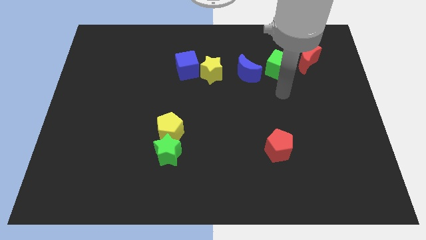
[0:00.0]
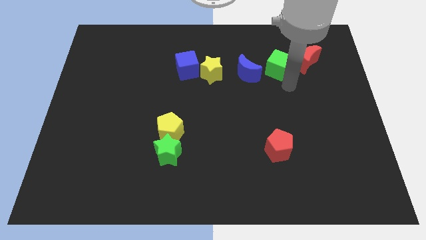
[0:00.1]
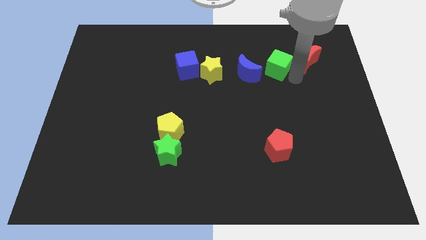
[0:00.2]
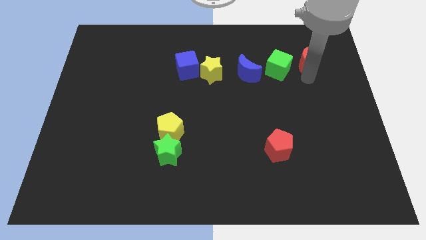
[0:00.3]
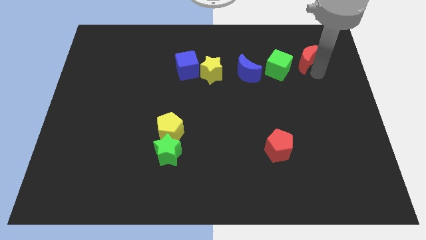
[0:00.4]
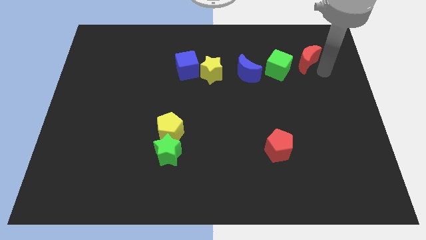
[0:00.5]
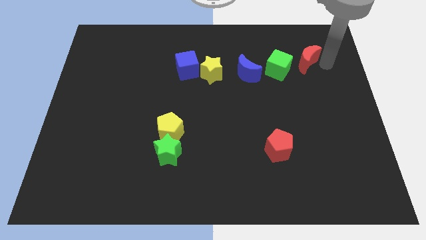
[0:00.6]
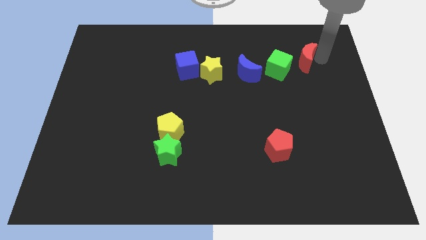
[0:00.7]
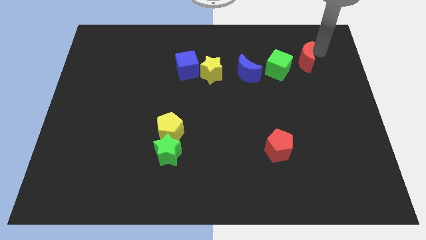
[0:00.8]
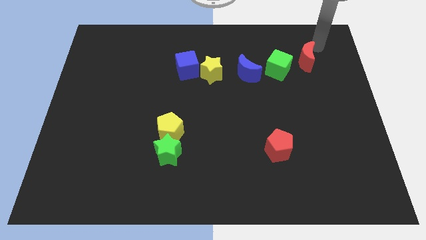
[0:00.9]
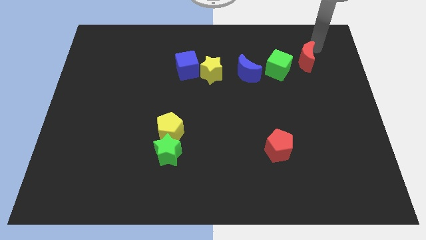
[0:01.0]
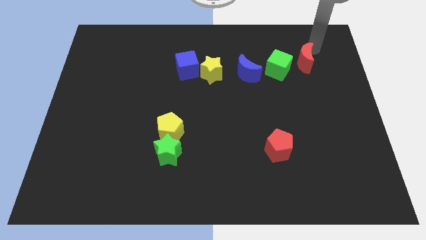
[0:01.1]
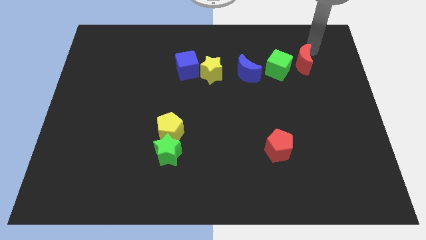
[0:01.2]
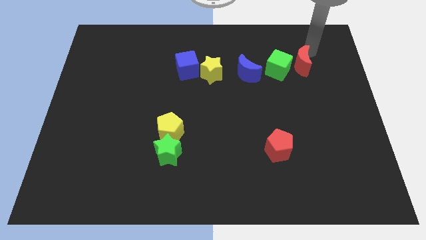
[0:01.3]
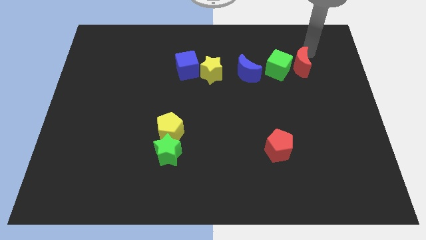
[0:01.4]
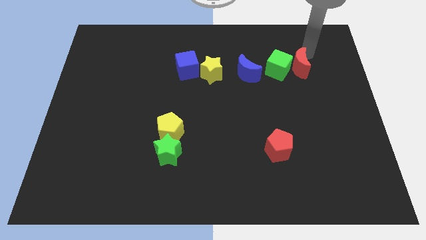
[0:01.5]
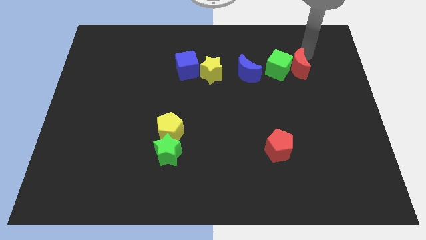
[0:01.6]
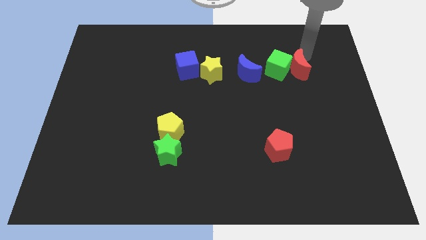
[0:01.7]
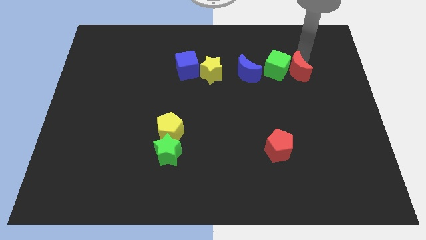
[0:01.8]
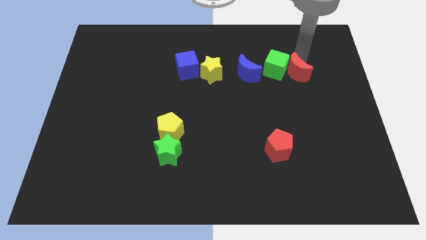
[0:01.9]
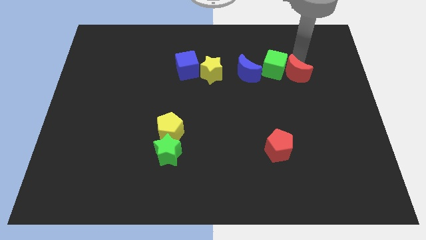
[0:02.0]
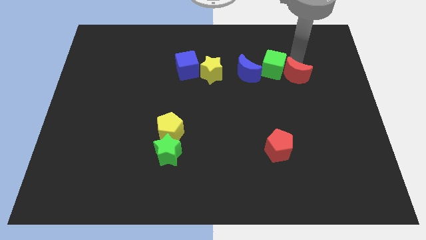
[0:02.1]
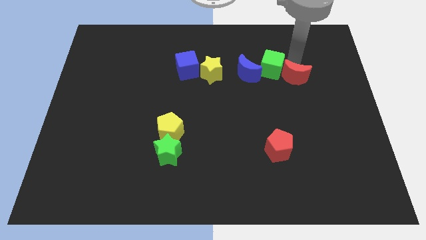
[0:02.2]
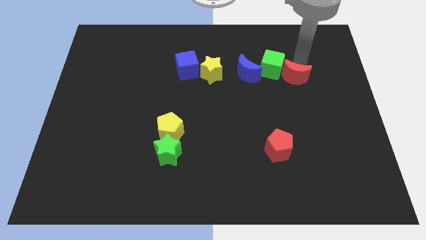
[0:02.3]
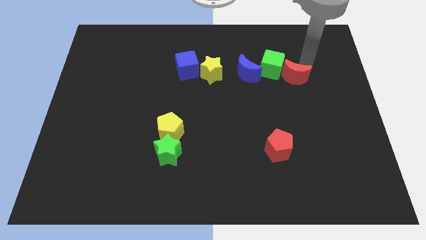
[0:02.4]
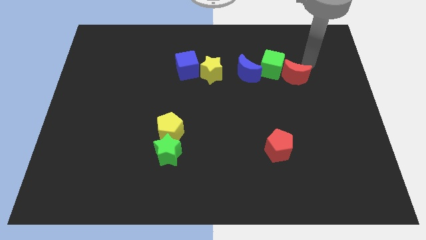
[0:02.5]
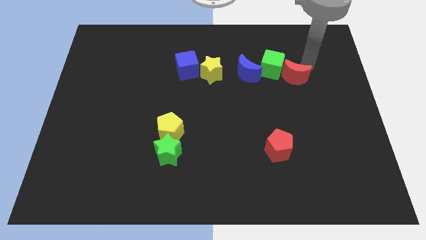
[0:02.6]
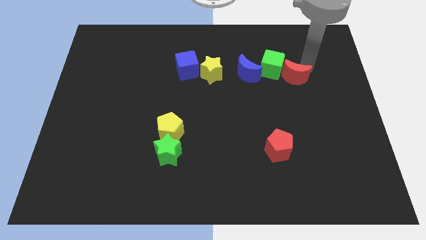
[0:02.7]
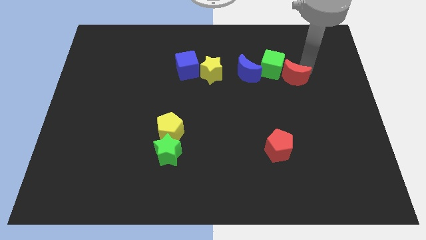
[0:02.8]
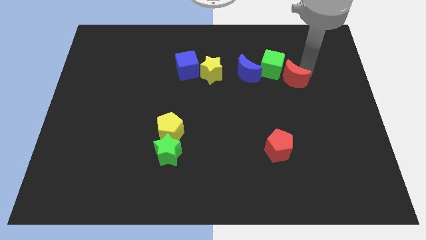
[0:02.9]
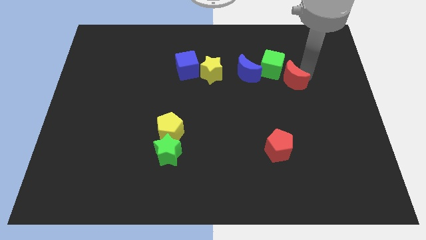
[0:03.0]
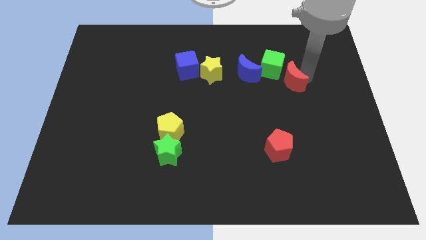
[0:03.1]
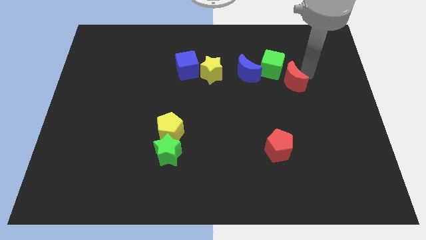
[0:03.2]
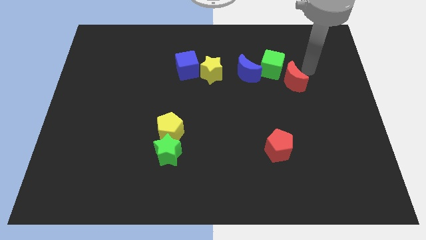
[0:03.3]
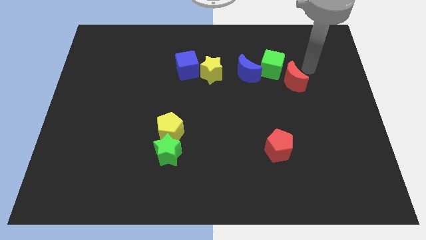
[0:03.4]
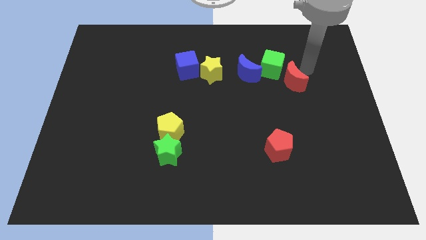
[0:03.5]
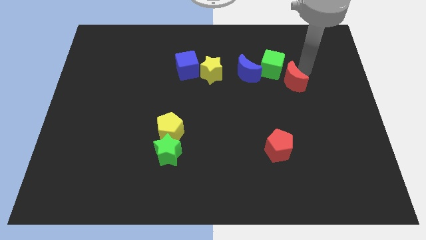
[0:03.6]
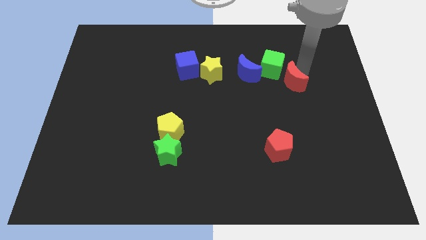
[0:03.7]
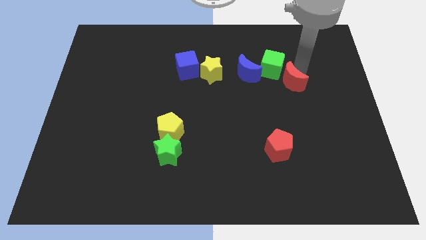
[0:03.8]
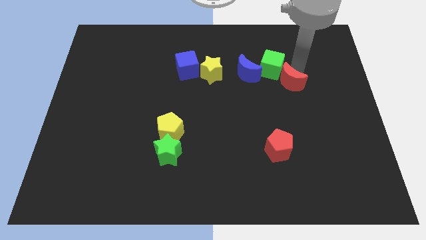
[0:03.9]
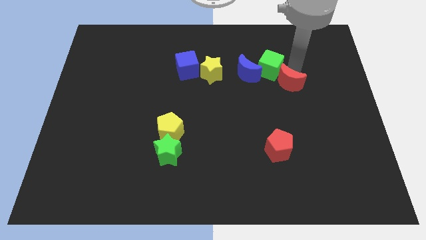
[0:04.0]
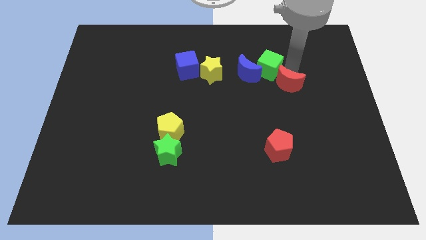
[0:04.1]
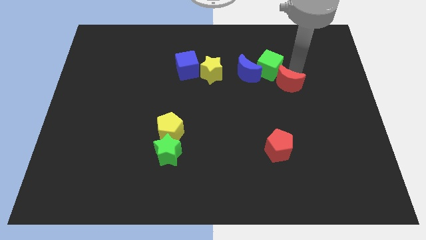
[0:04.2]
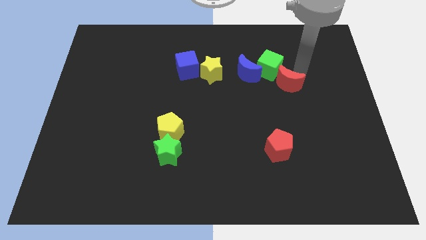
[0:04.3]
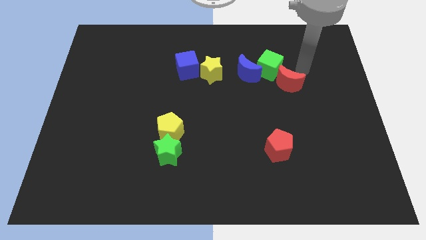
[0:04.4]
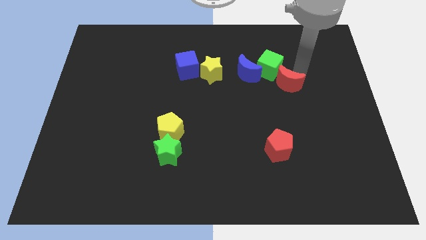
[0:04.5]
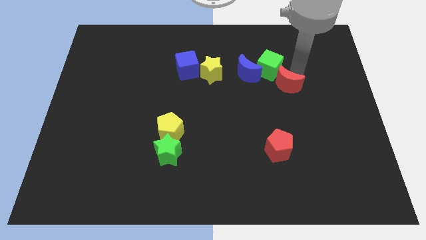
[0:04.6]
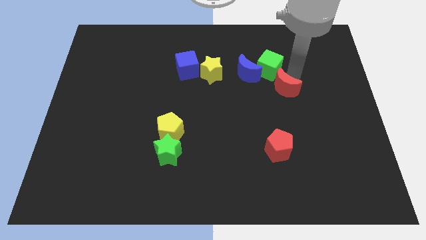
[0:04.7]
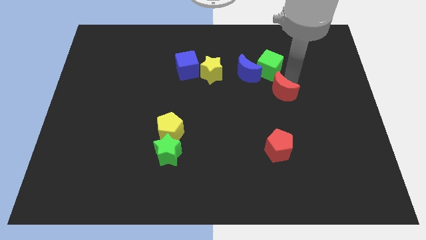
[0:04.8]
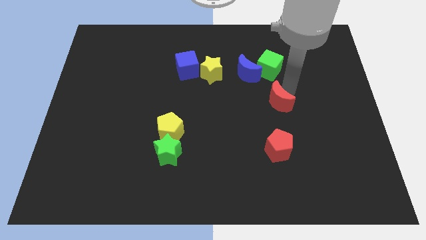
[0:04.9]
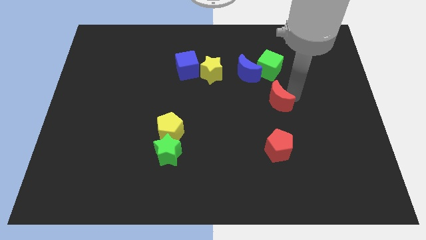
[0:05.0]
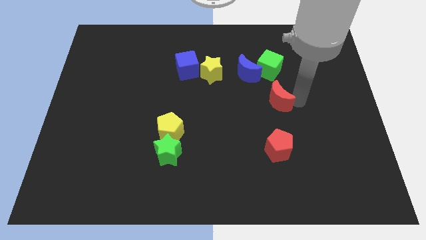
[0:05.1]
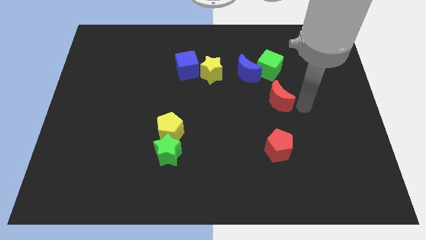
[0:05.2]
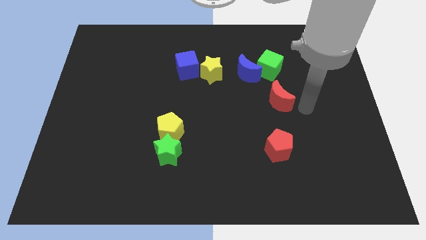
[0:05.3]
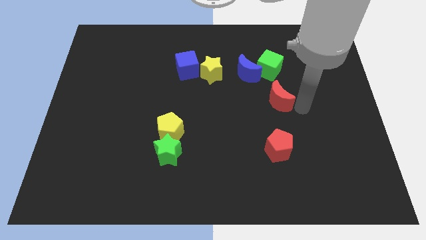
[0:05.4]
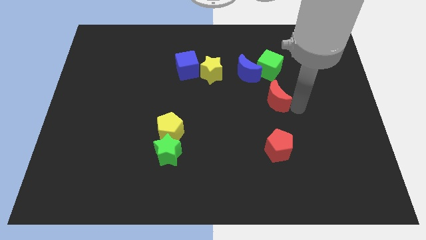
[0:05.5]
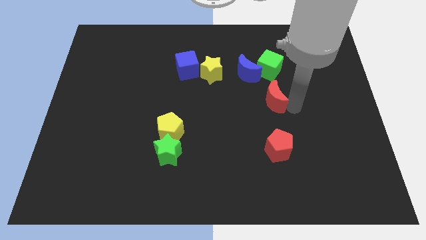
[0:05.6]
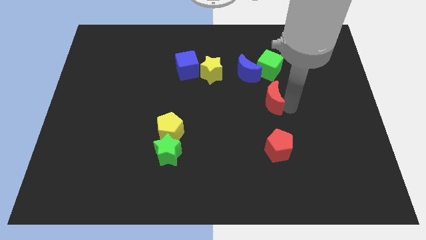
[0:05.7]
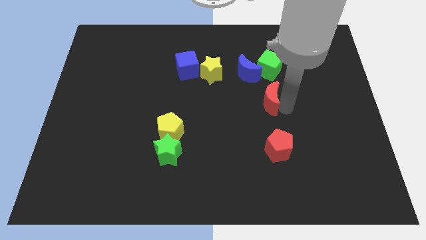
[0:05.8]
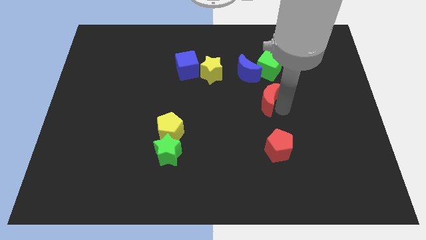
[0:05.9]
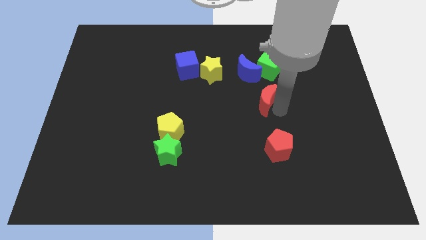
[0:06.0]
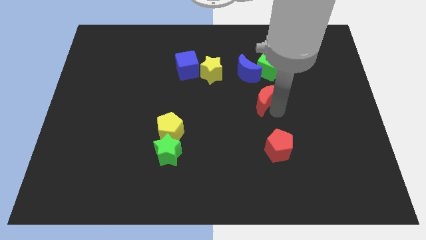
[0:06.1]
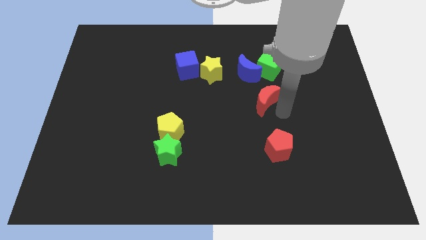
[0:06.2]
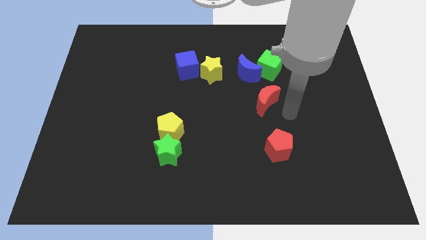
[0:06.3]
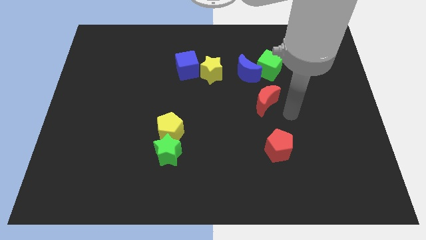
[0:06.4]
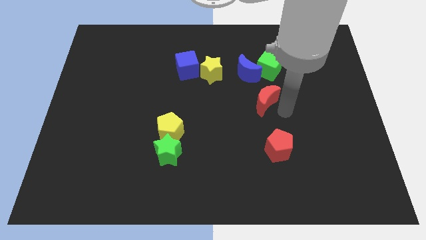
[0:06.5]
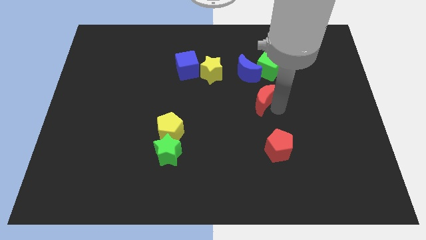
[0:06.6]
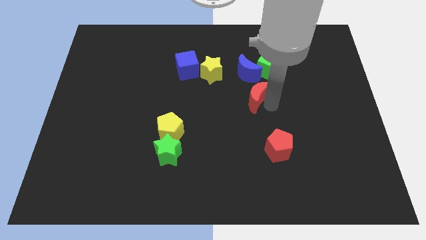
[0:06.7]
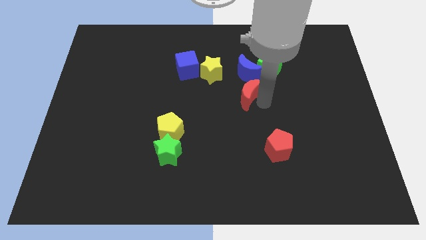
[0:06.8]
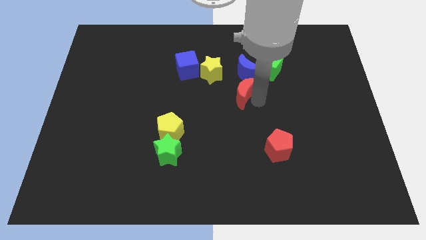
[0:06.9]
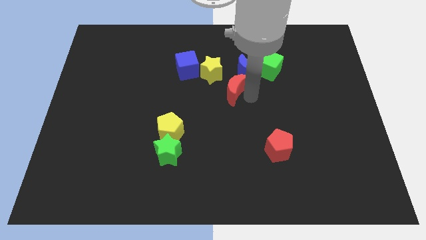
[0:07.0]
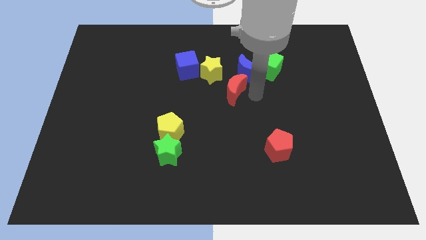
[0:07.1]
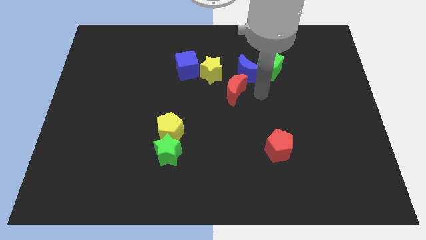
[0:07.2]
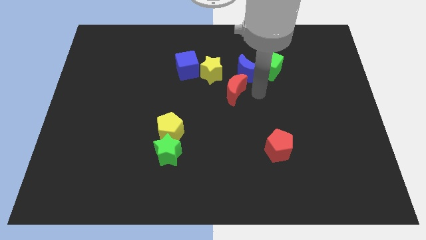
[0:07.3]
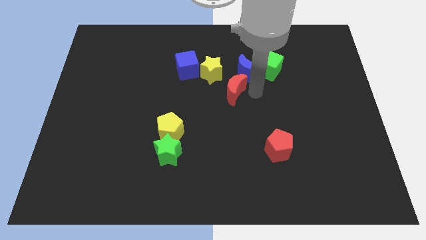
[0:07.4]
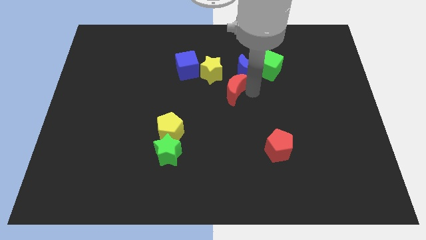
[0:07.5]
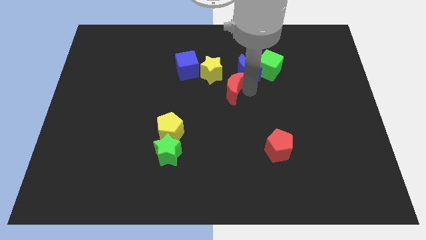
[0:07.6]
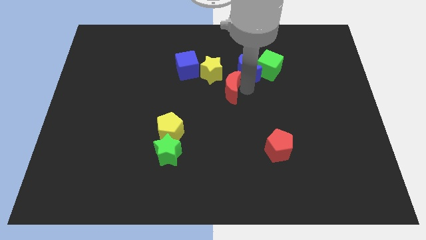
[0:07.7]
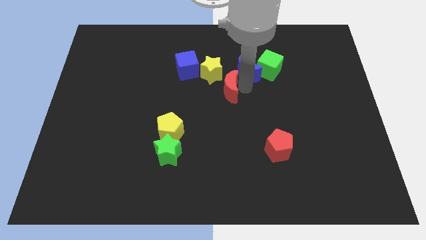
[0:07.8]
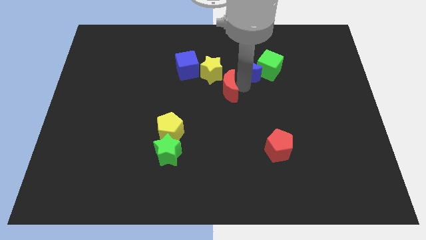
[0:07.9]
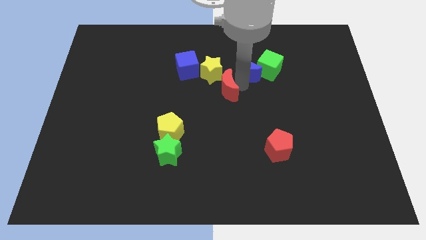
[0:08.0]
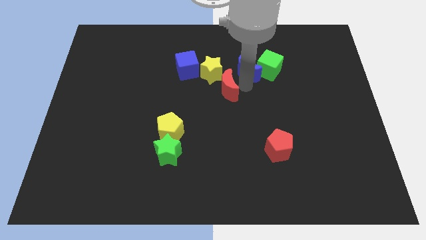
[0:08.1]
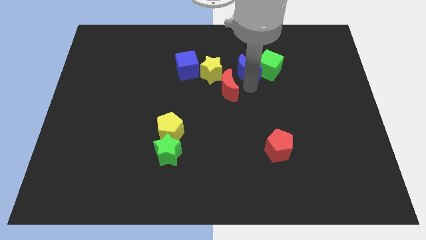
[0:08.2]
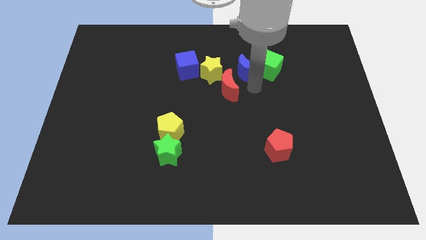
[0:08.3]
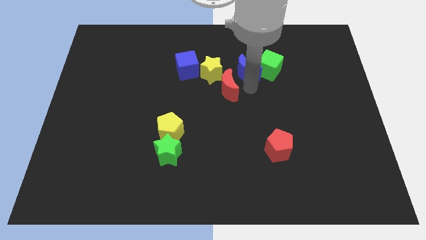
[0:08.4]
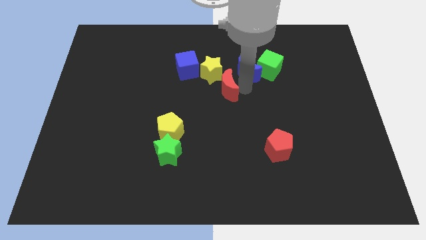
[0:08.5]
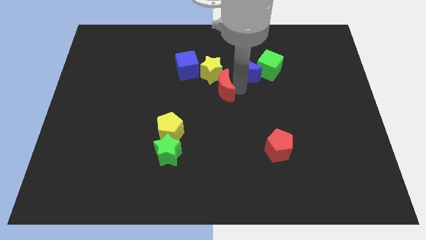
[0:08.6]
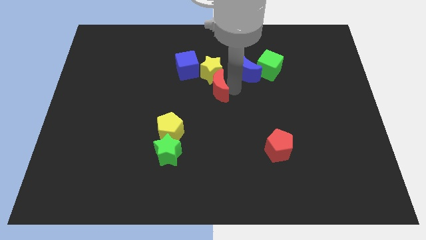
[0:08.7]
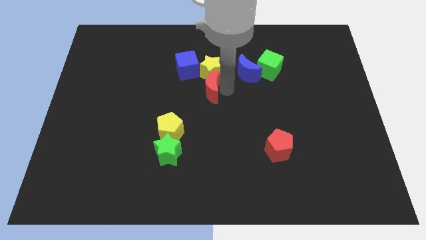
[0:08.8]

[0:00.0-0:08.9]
push the red moon to the bottom left side of the yellow star
